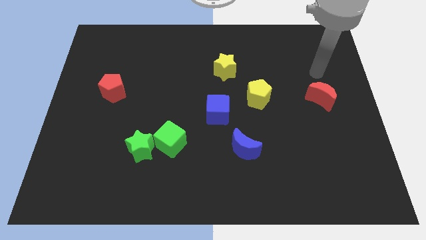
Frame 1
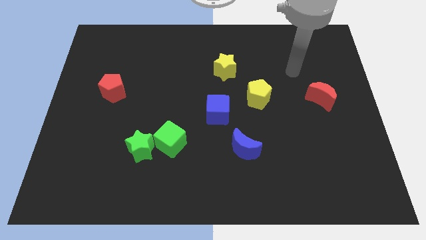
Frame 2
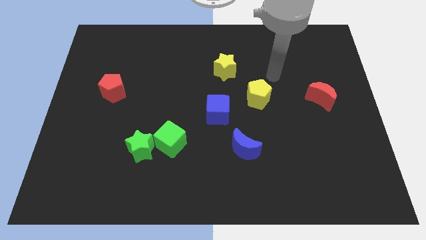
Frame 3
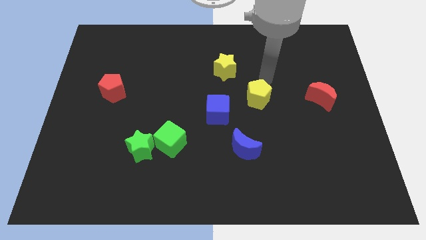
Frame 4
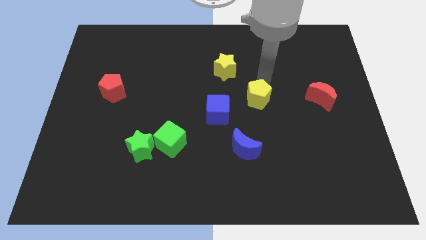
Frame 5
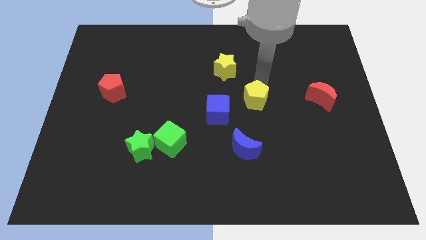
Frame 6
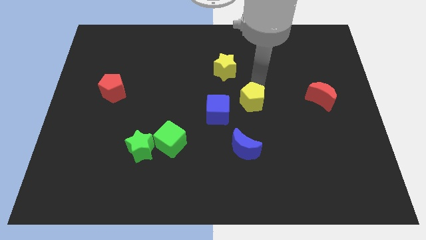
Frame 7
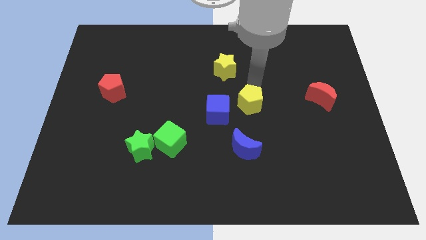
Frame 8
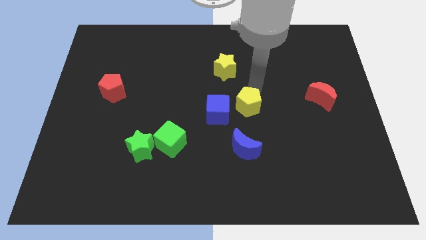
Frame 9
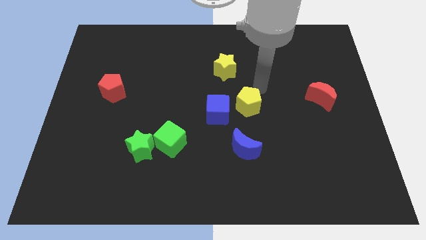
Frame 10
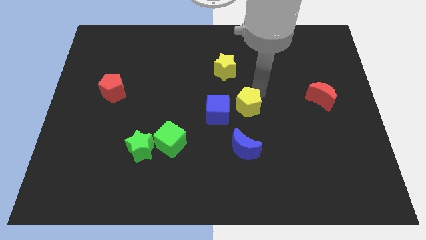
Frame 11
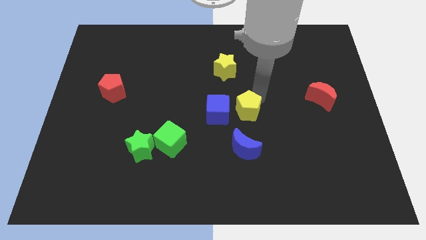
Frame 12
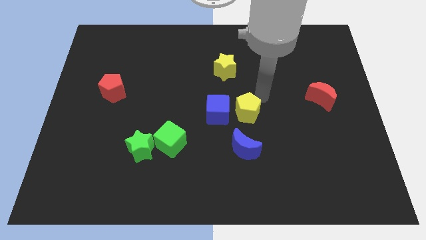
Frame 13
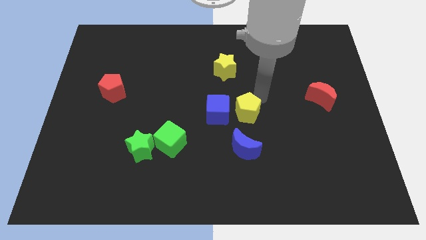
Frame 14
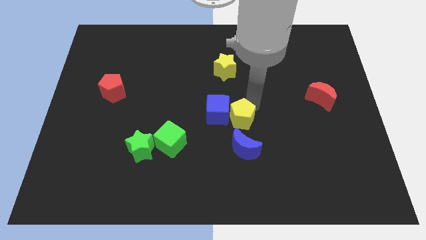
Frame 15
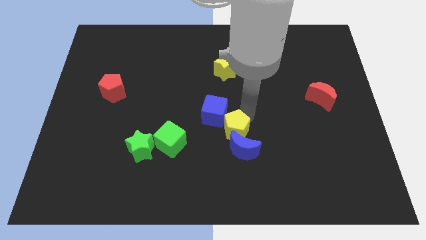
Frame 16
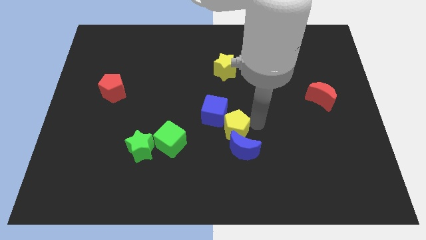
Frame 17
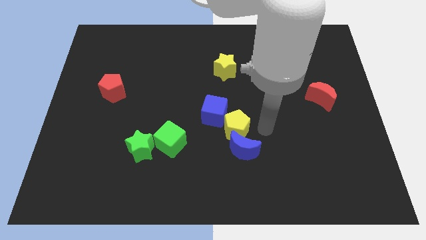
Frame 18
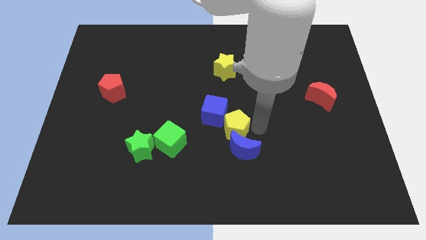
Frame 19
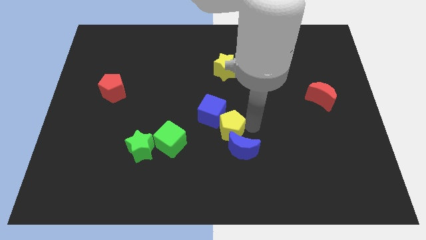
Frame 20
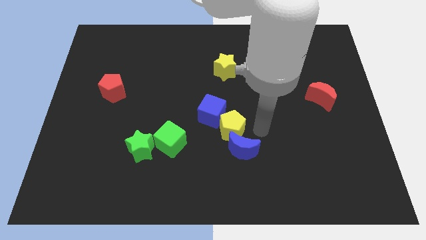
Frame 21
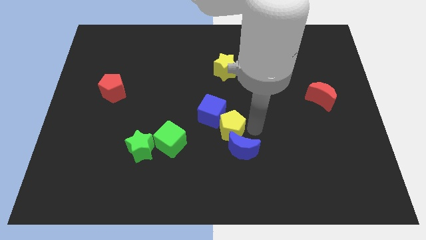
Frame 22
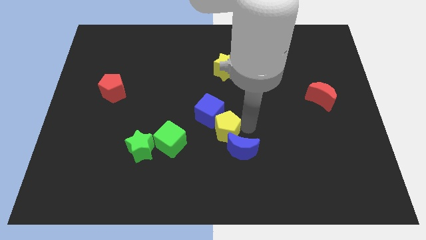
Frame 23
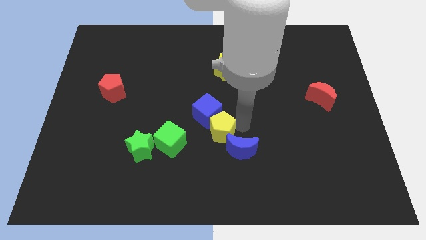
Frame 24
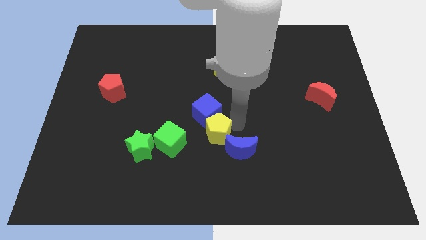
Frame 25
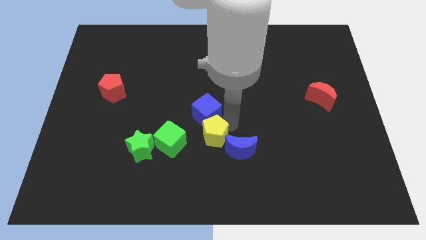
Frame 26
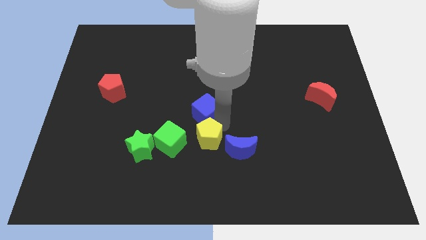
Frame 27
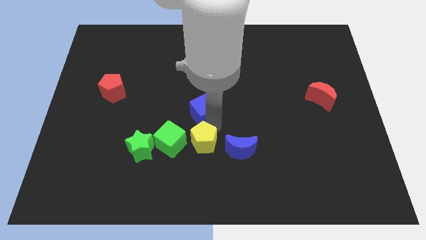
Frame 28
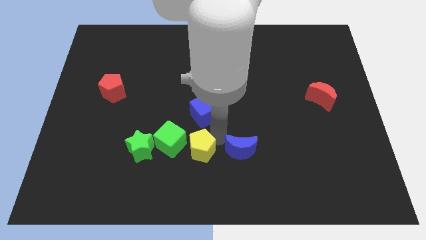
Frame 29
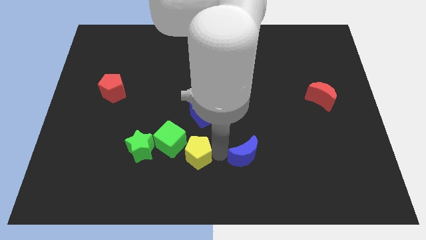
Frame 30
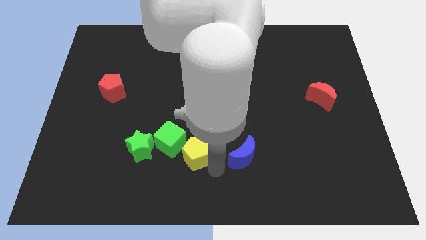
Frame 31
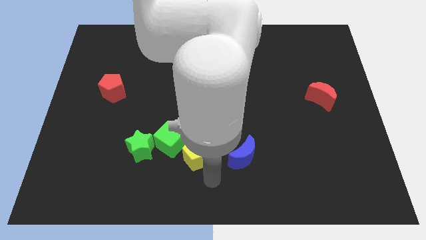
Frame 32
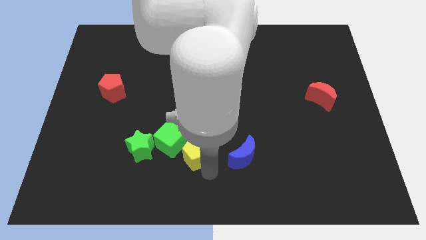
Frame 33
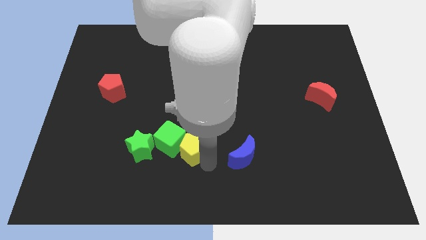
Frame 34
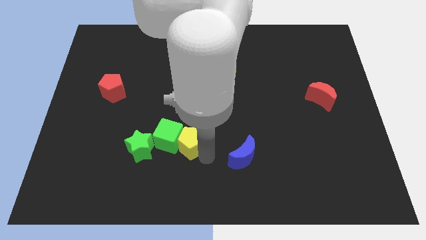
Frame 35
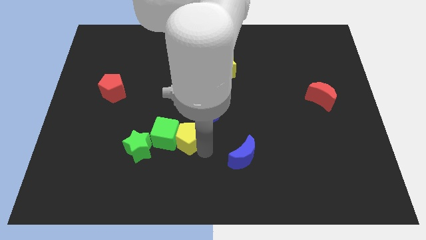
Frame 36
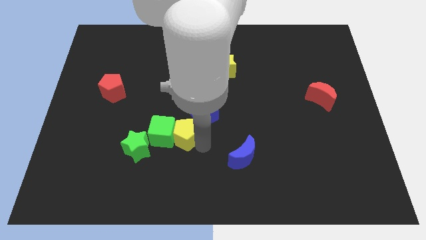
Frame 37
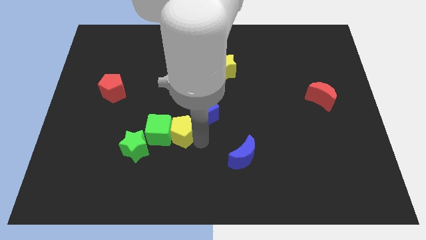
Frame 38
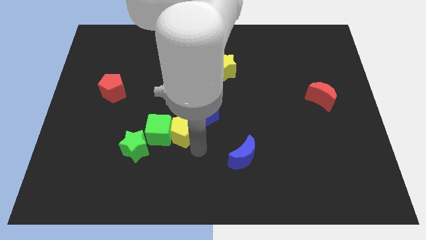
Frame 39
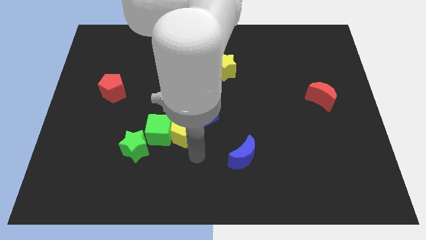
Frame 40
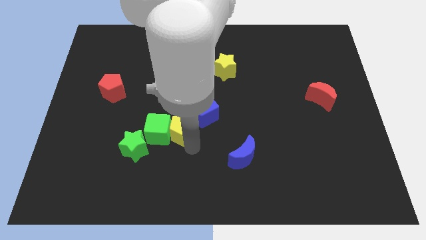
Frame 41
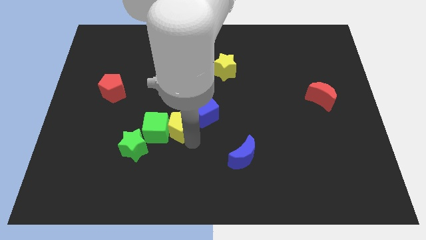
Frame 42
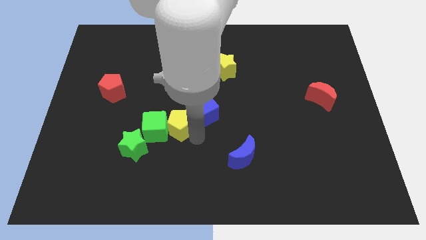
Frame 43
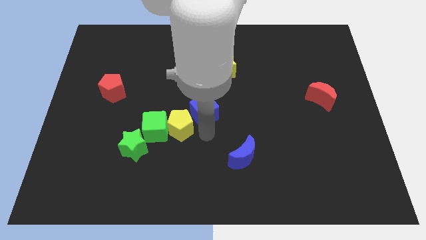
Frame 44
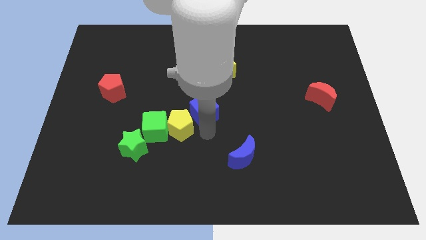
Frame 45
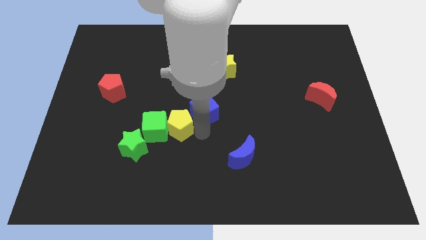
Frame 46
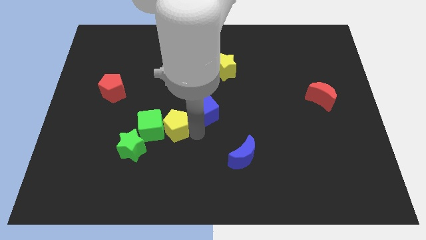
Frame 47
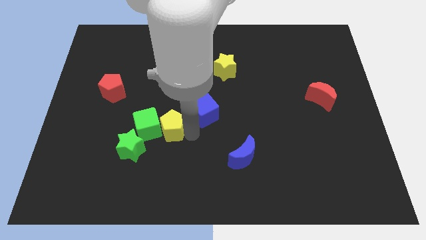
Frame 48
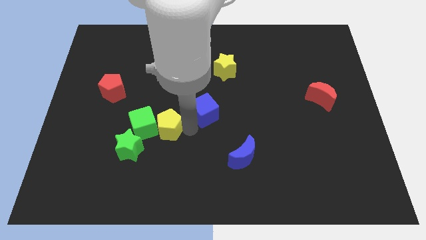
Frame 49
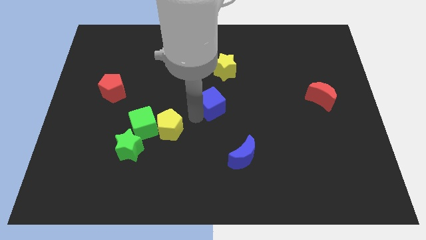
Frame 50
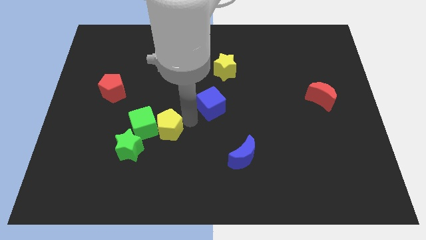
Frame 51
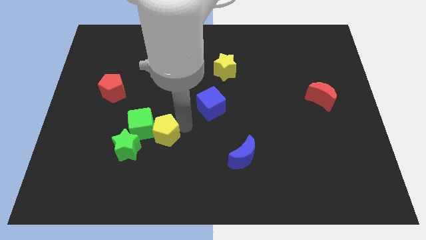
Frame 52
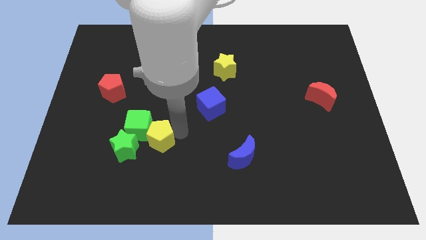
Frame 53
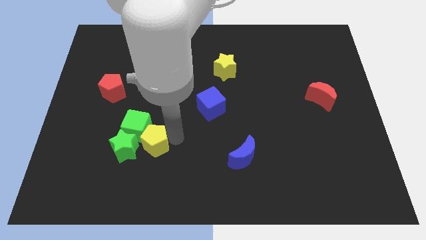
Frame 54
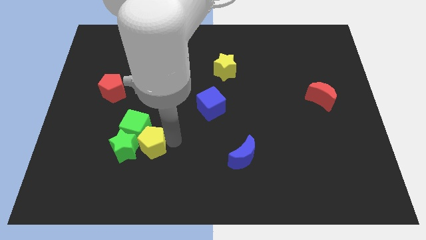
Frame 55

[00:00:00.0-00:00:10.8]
push the yellow pentagon towards the green star

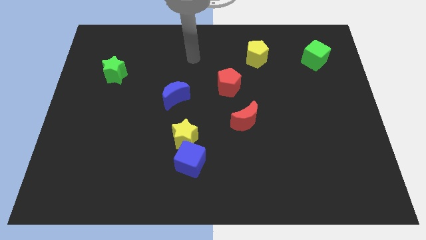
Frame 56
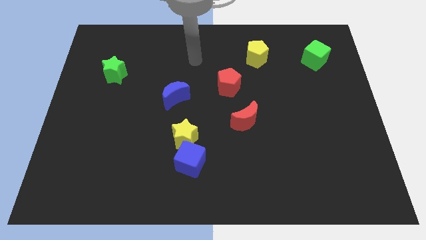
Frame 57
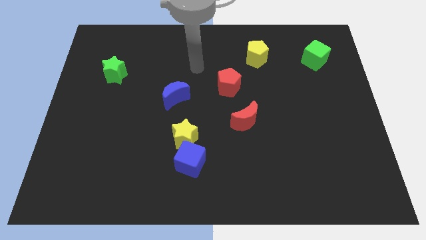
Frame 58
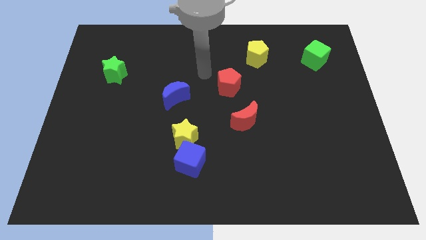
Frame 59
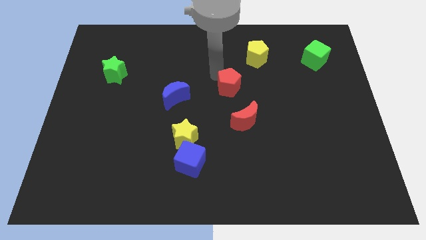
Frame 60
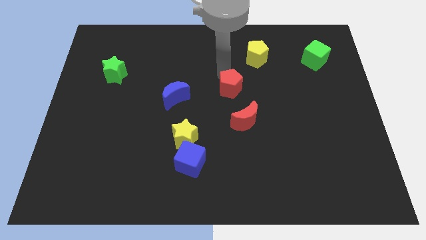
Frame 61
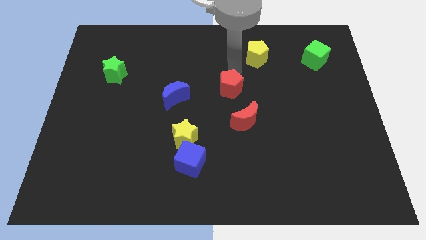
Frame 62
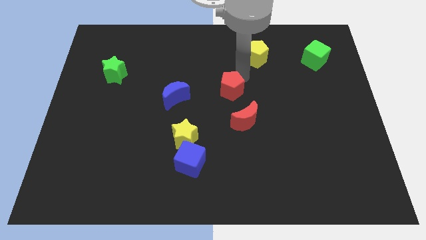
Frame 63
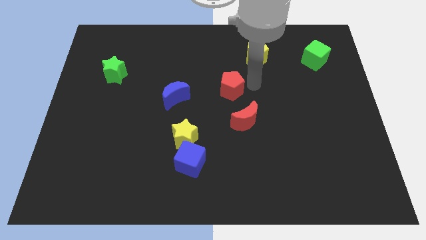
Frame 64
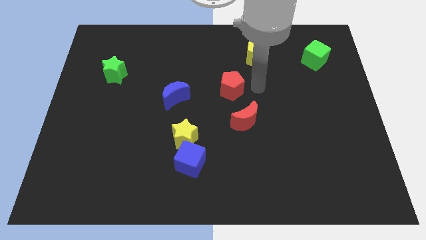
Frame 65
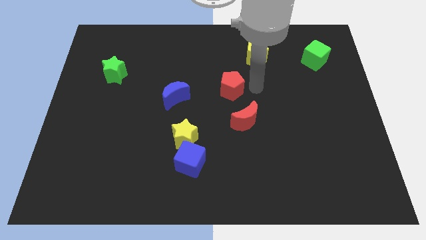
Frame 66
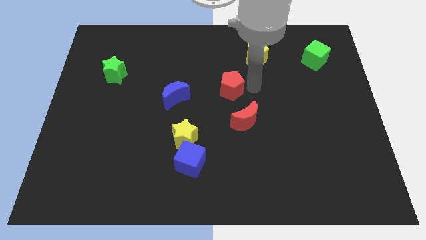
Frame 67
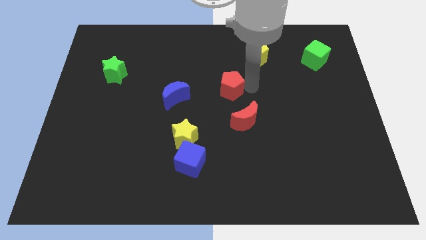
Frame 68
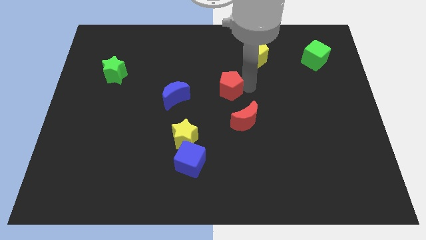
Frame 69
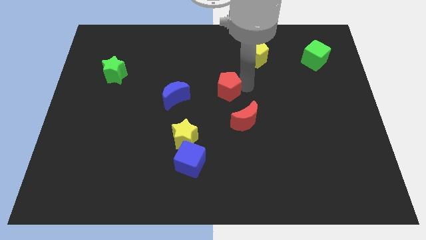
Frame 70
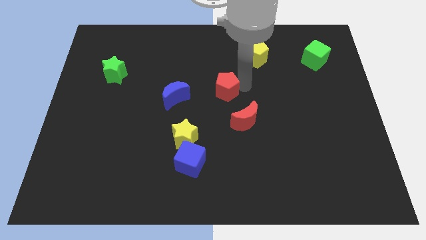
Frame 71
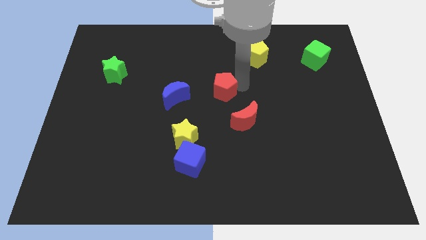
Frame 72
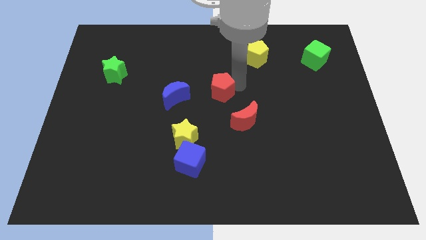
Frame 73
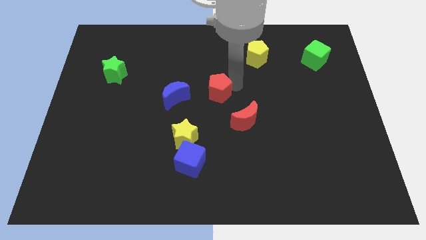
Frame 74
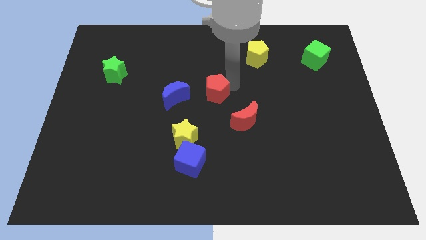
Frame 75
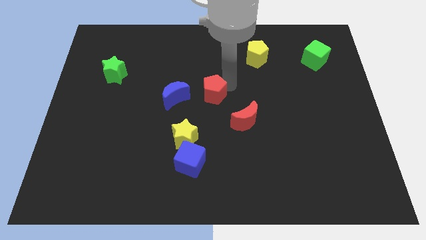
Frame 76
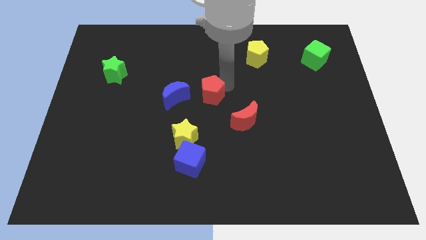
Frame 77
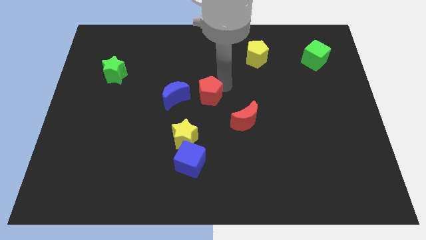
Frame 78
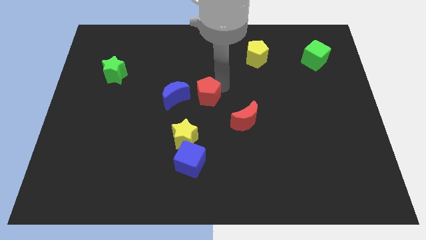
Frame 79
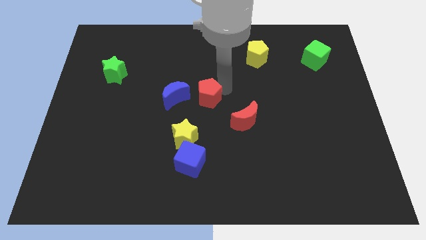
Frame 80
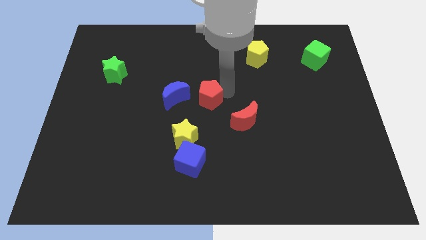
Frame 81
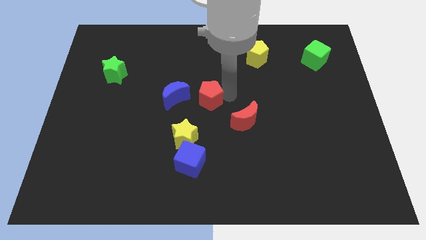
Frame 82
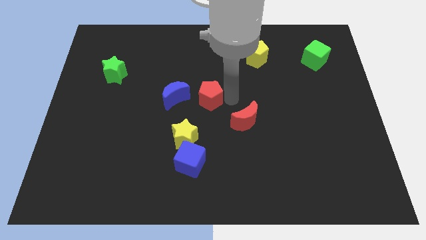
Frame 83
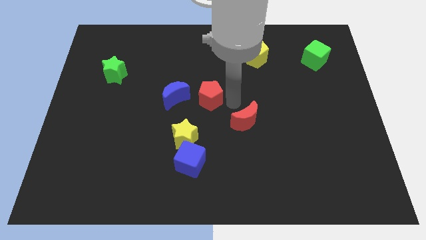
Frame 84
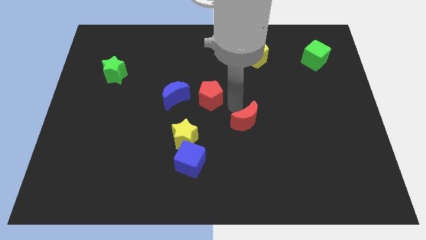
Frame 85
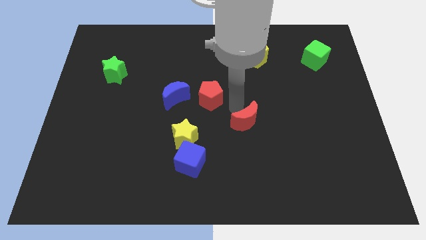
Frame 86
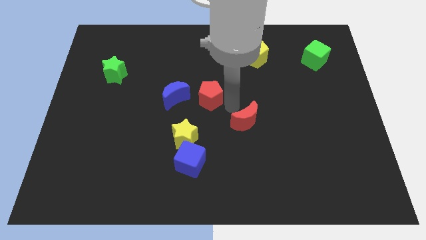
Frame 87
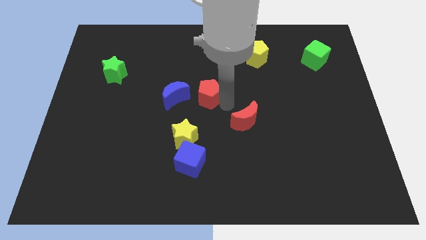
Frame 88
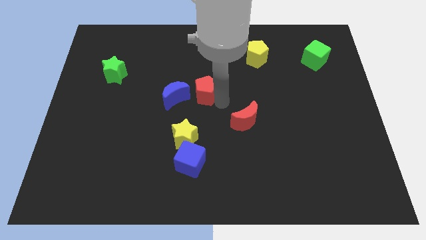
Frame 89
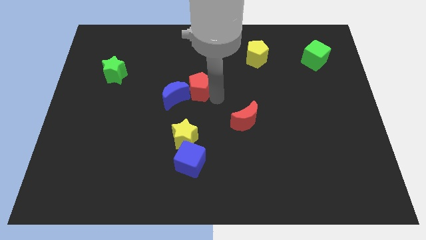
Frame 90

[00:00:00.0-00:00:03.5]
slide the red pentagon next to the blue moon
